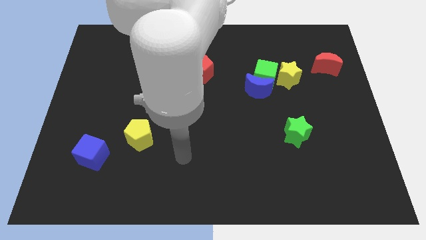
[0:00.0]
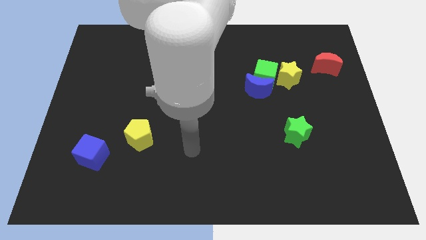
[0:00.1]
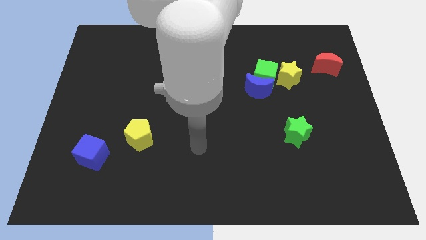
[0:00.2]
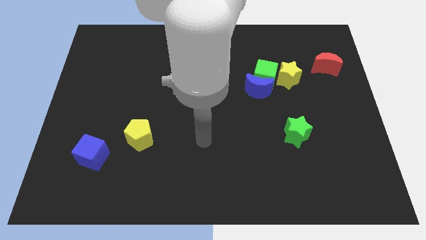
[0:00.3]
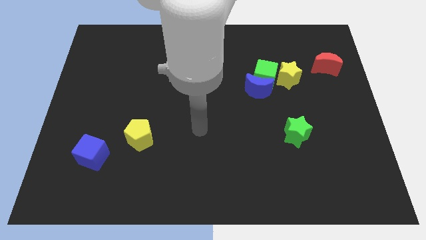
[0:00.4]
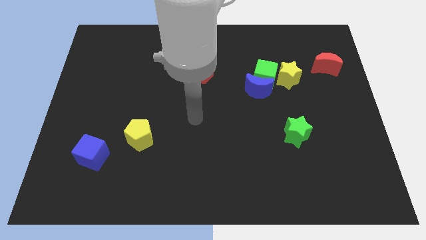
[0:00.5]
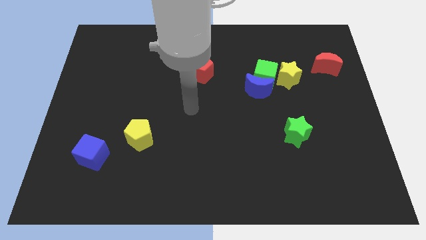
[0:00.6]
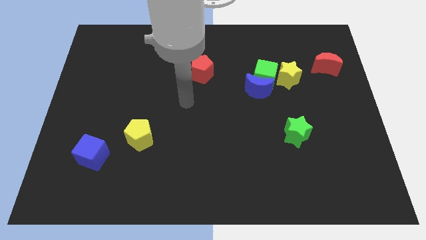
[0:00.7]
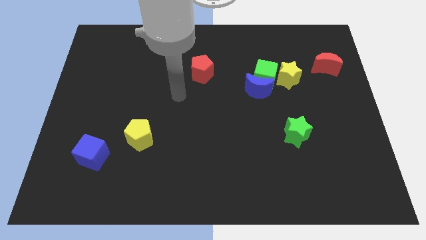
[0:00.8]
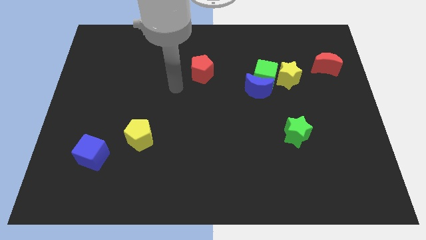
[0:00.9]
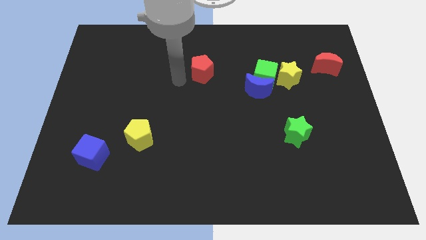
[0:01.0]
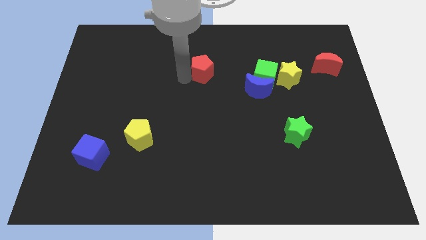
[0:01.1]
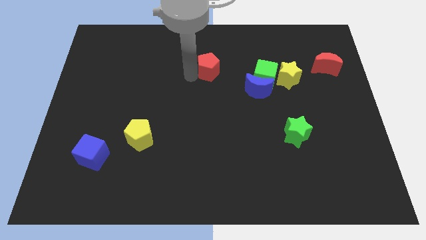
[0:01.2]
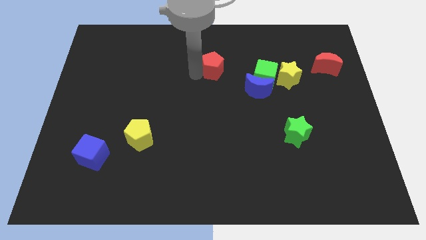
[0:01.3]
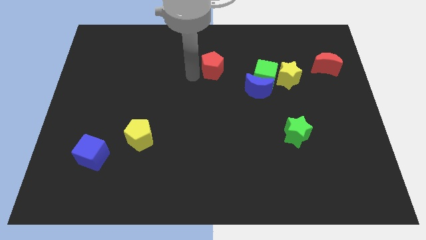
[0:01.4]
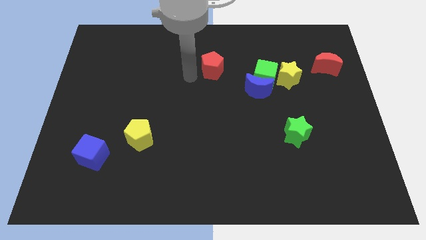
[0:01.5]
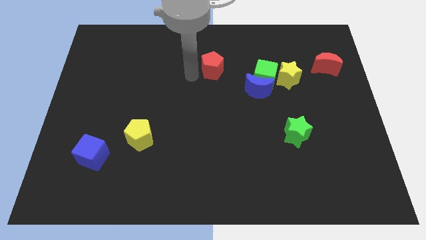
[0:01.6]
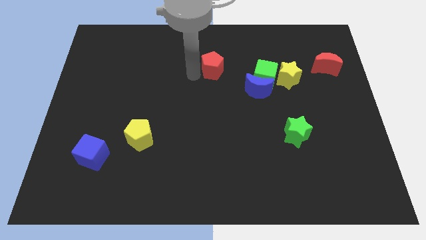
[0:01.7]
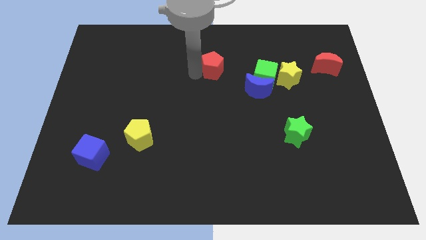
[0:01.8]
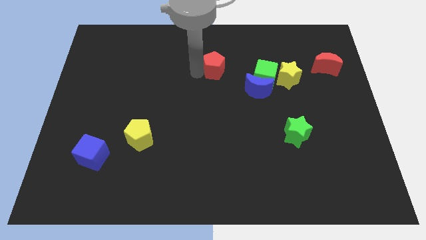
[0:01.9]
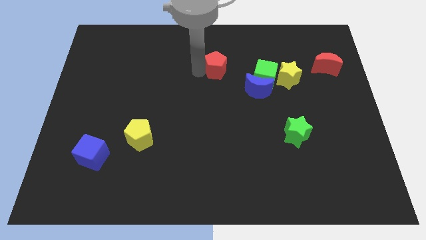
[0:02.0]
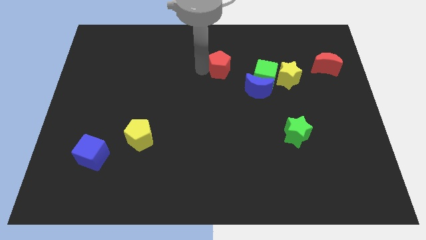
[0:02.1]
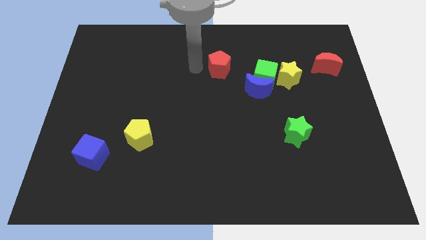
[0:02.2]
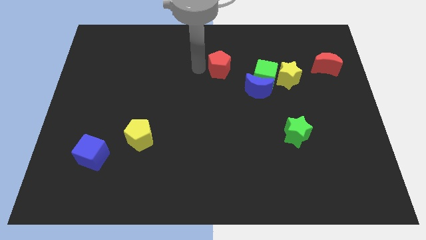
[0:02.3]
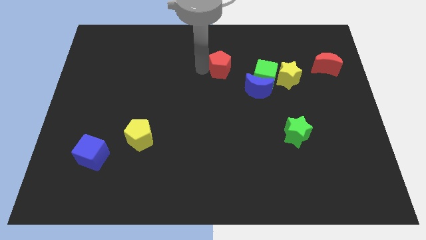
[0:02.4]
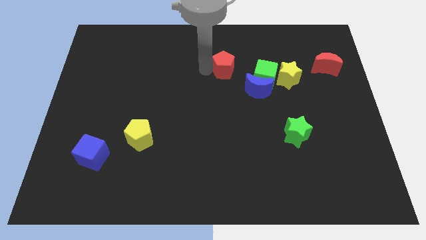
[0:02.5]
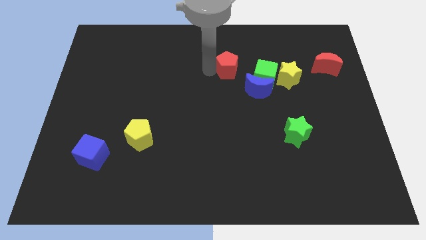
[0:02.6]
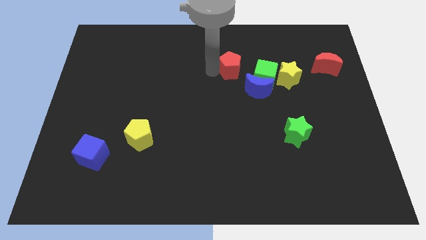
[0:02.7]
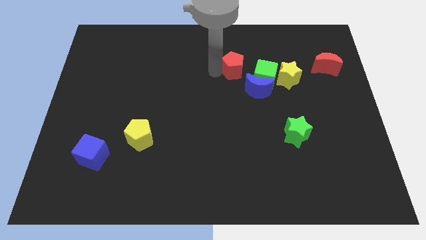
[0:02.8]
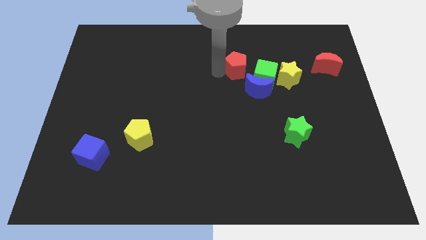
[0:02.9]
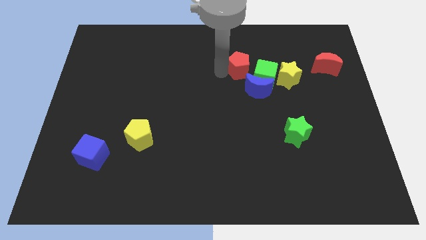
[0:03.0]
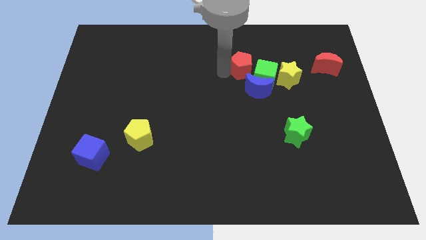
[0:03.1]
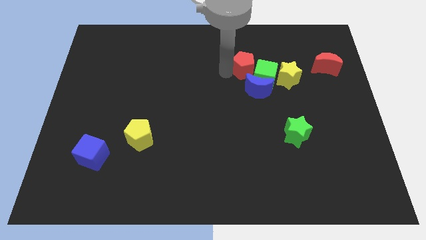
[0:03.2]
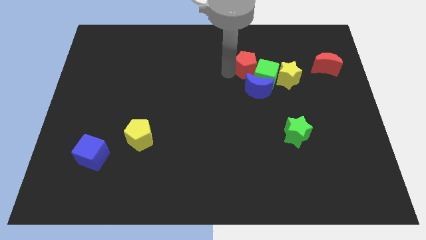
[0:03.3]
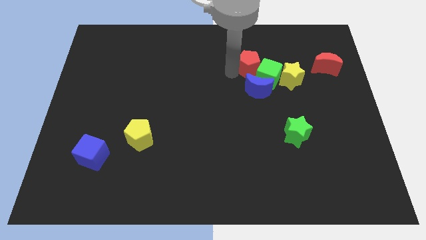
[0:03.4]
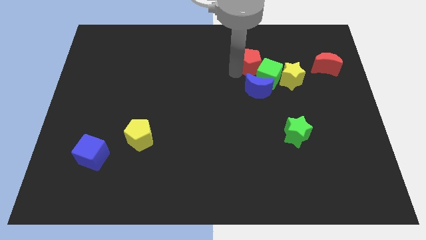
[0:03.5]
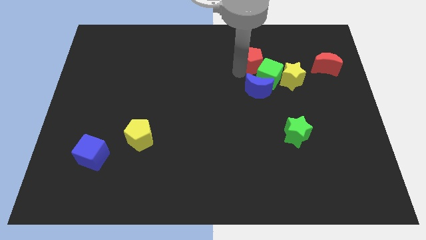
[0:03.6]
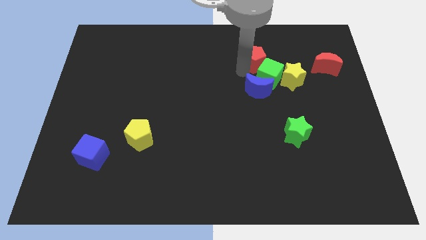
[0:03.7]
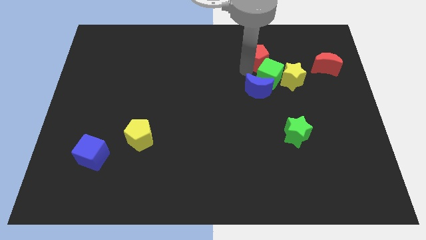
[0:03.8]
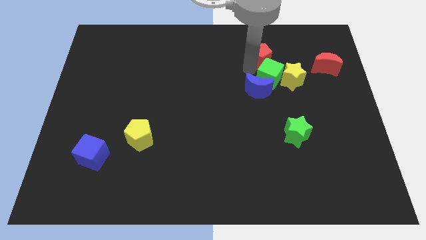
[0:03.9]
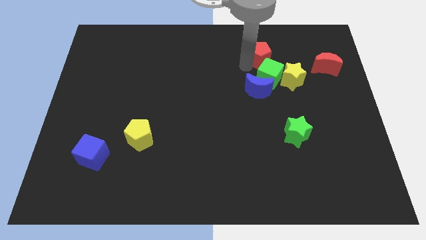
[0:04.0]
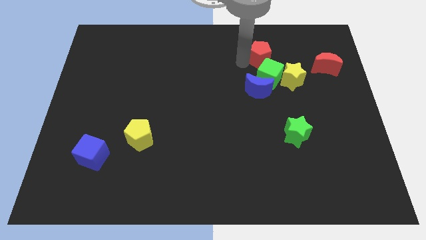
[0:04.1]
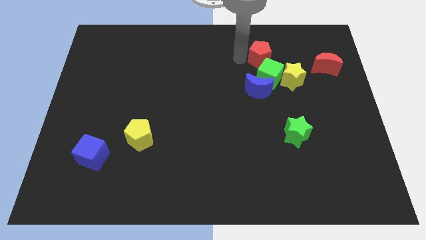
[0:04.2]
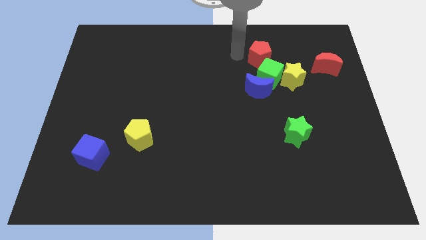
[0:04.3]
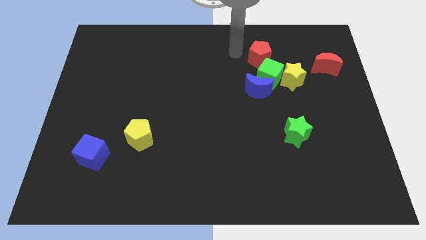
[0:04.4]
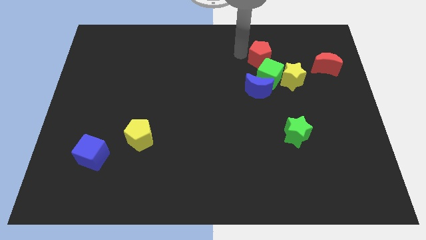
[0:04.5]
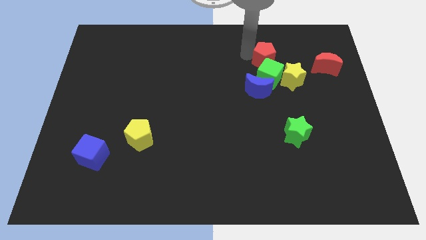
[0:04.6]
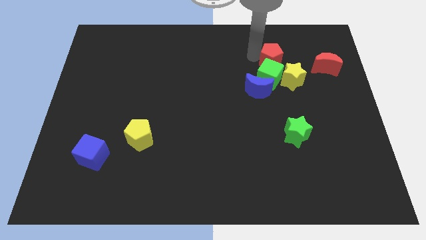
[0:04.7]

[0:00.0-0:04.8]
push the red pentagon diagonally up and to the right of the green cube

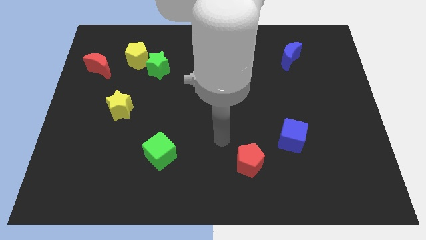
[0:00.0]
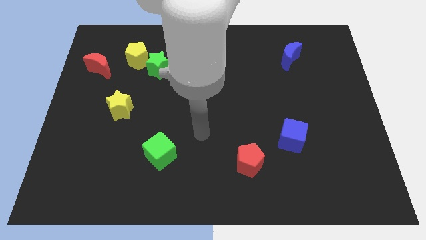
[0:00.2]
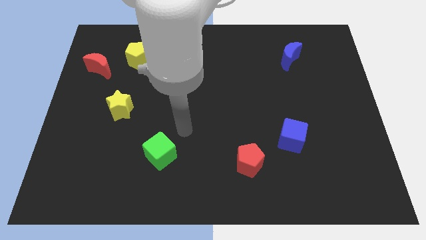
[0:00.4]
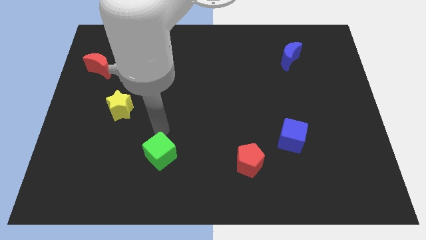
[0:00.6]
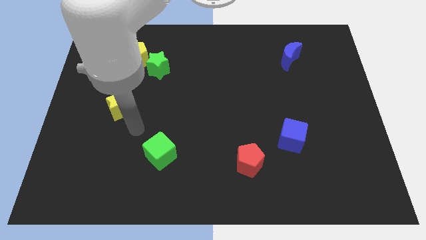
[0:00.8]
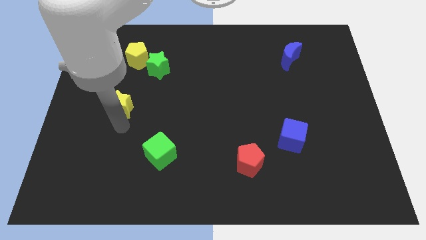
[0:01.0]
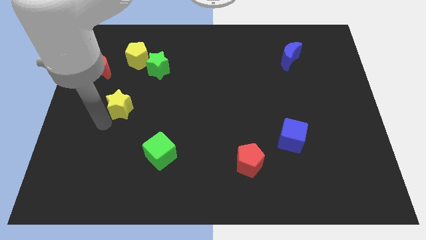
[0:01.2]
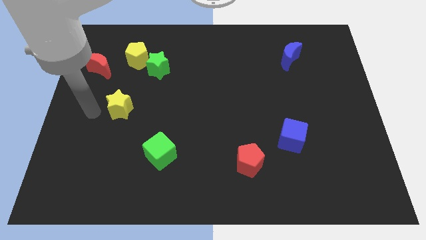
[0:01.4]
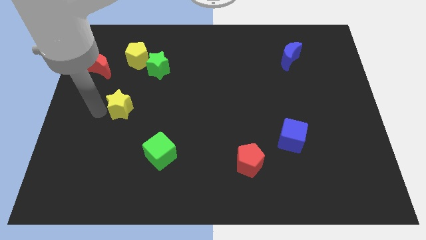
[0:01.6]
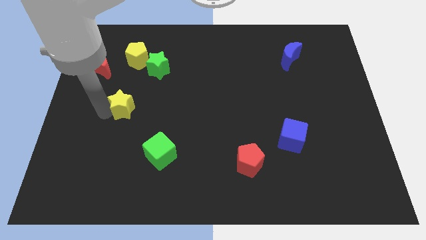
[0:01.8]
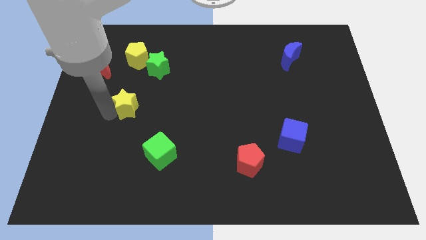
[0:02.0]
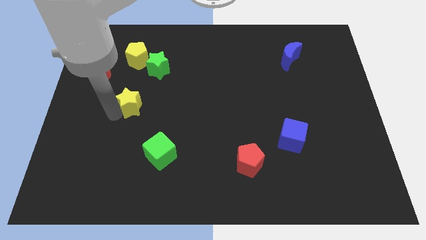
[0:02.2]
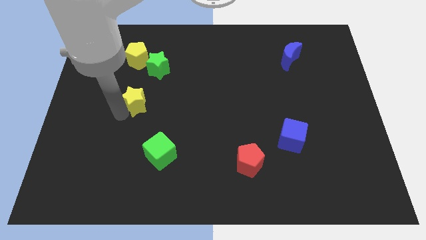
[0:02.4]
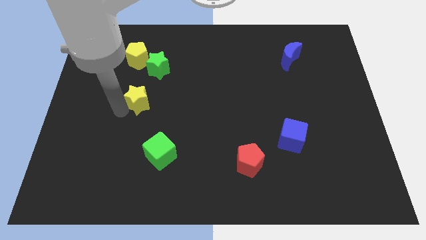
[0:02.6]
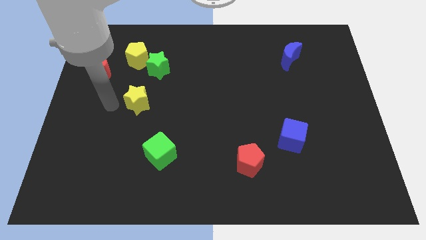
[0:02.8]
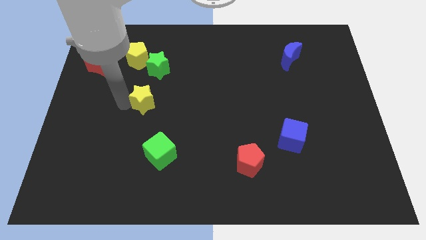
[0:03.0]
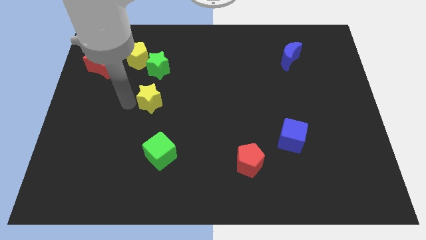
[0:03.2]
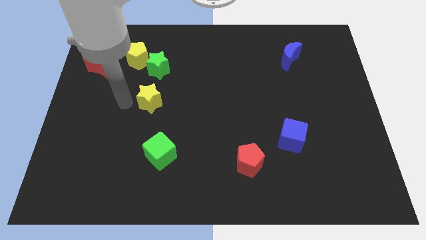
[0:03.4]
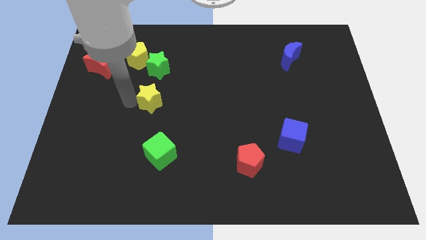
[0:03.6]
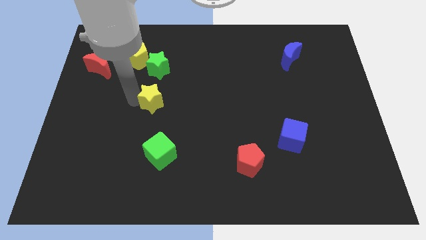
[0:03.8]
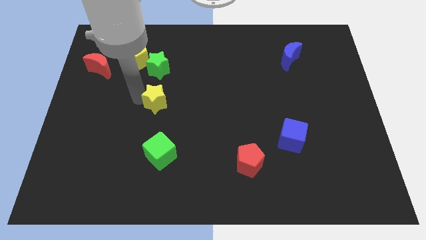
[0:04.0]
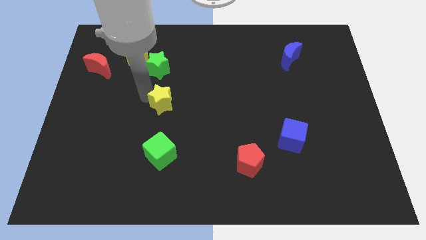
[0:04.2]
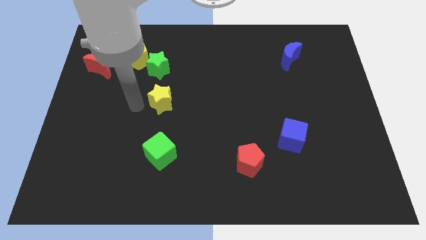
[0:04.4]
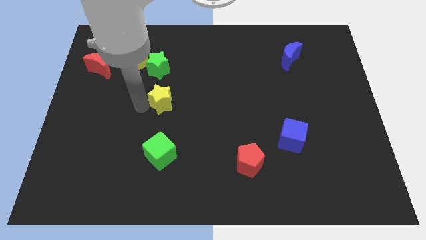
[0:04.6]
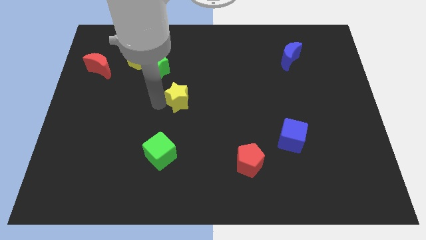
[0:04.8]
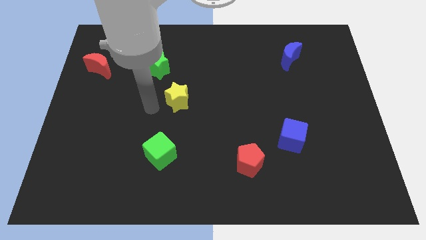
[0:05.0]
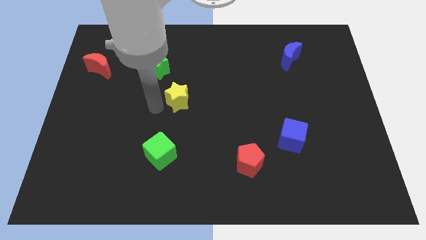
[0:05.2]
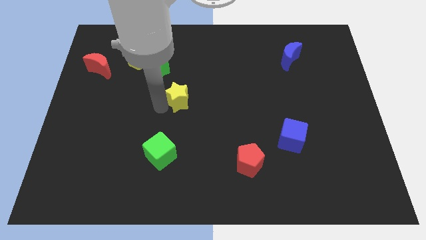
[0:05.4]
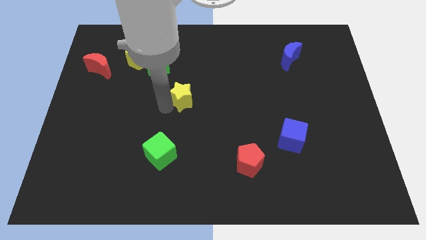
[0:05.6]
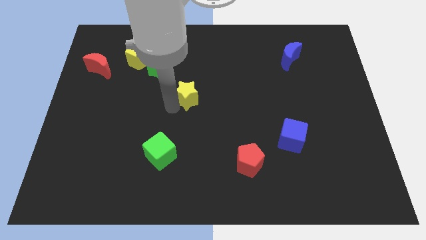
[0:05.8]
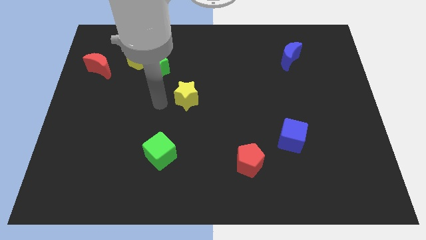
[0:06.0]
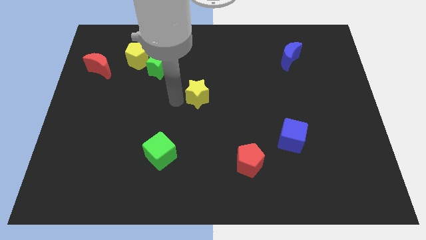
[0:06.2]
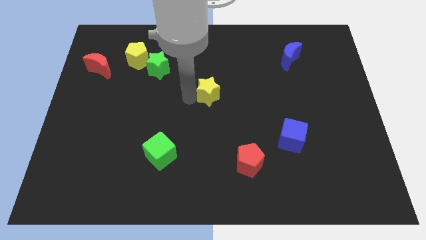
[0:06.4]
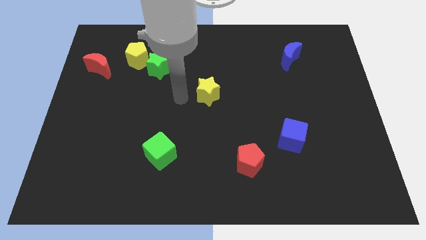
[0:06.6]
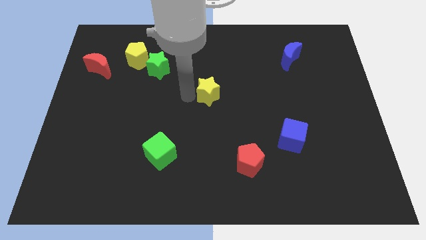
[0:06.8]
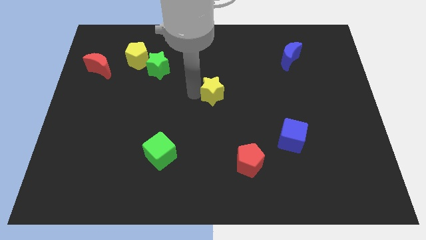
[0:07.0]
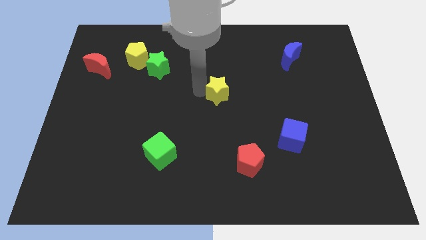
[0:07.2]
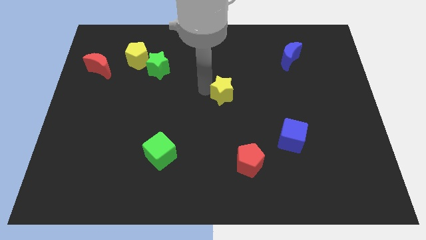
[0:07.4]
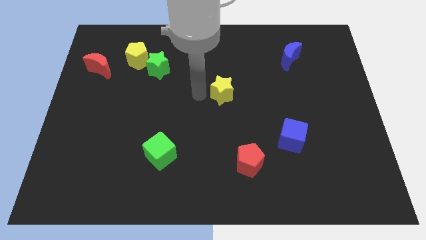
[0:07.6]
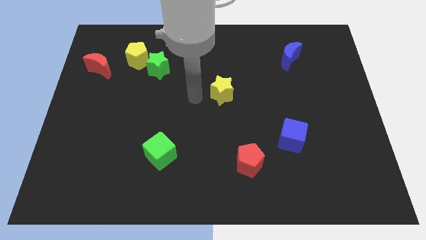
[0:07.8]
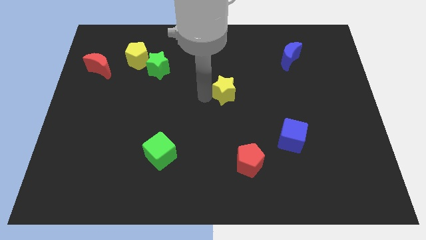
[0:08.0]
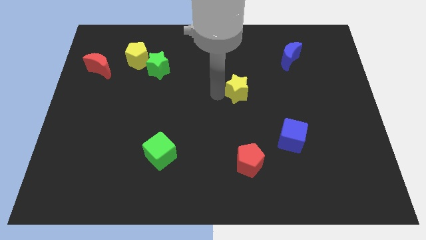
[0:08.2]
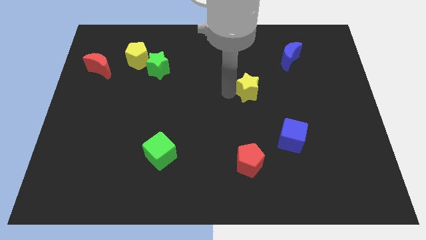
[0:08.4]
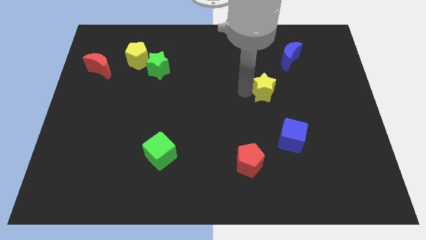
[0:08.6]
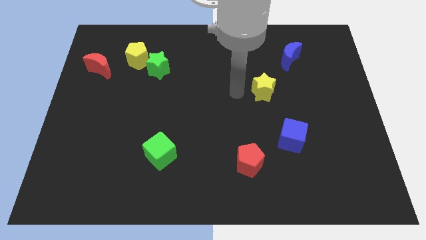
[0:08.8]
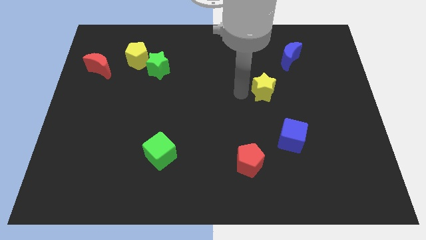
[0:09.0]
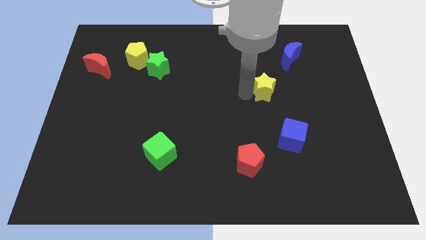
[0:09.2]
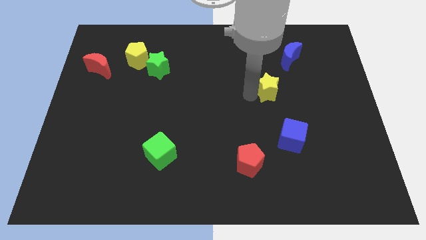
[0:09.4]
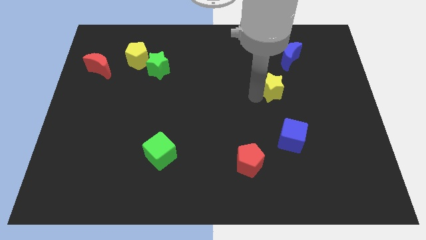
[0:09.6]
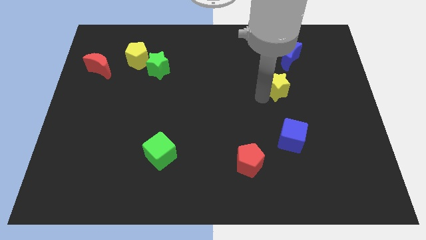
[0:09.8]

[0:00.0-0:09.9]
push the yellow star to the bottom of the blue moon
